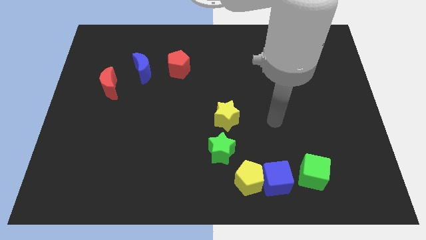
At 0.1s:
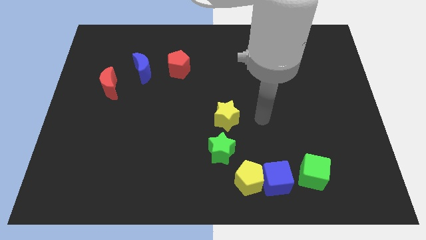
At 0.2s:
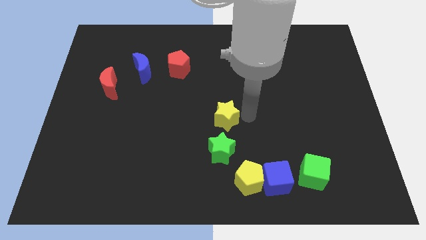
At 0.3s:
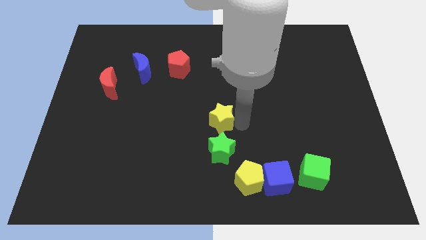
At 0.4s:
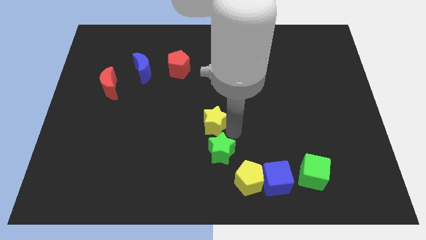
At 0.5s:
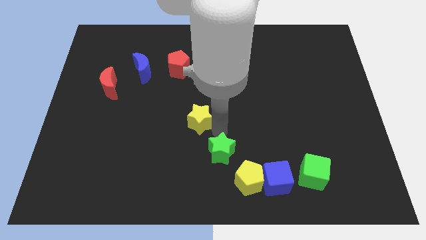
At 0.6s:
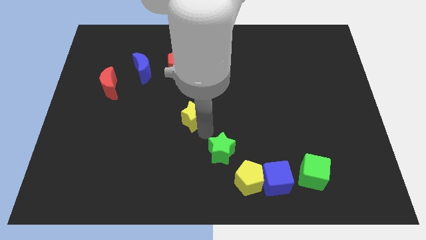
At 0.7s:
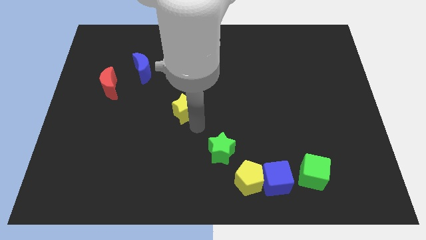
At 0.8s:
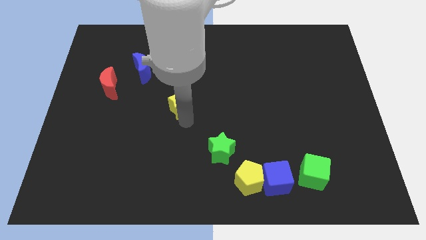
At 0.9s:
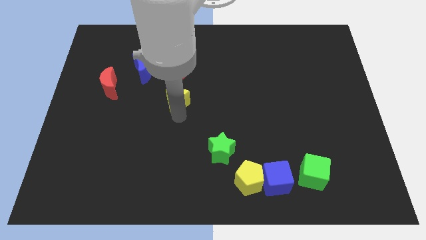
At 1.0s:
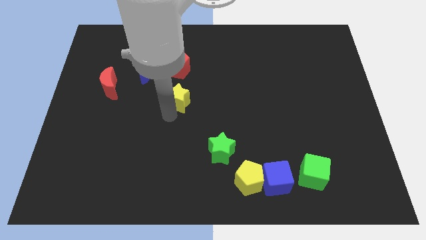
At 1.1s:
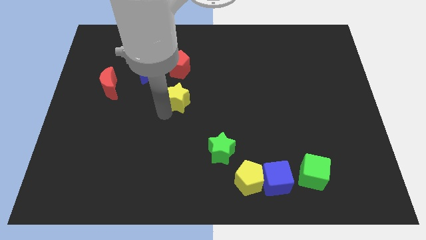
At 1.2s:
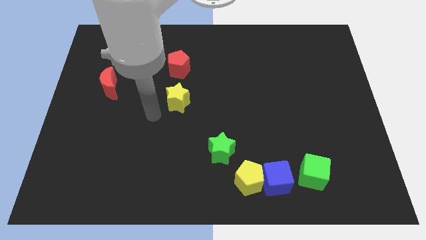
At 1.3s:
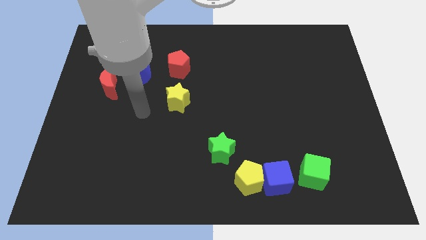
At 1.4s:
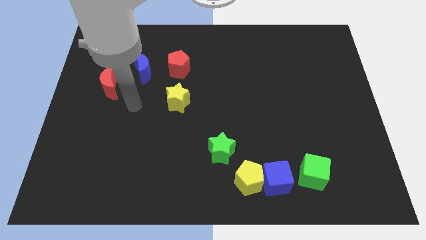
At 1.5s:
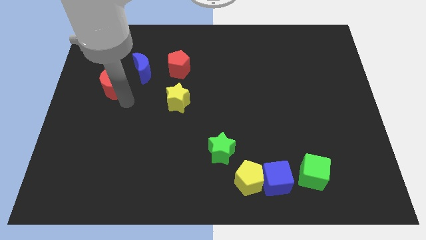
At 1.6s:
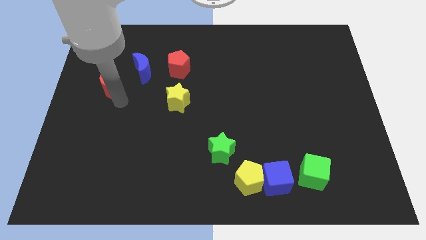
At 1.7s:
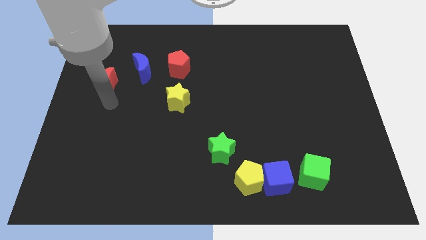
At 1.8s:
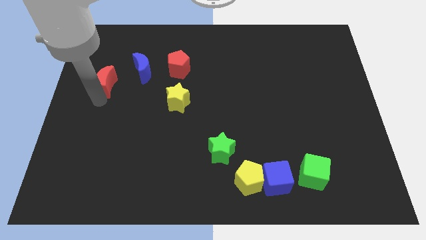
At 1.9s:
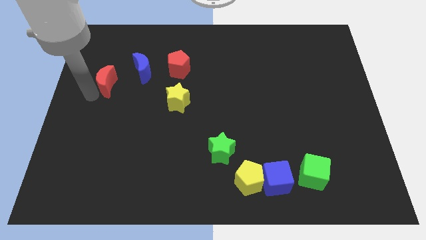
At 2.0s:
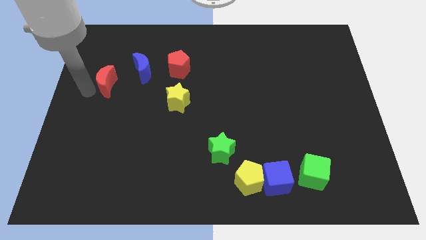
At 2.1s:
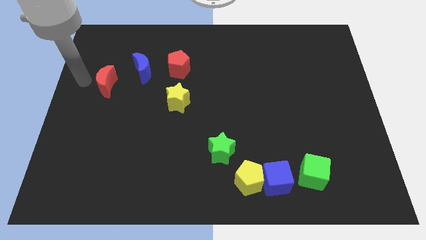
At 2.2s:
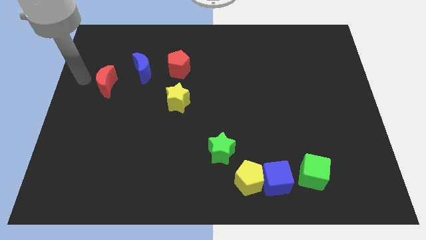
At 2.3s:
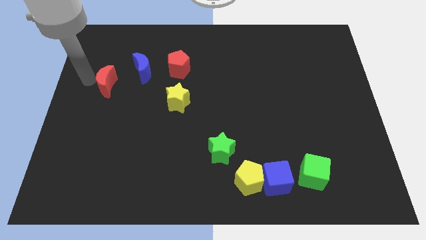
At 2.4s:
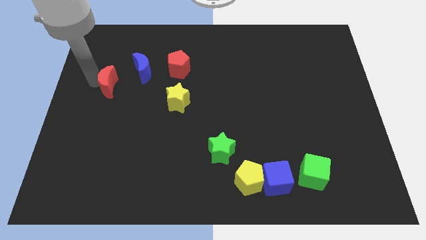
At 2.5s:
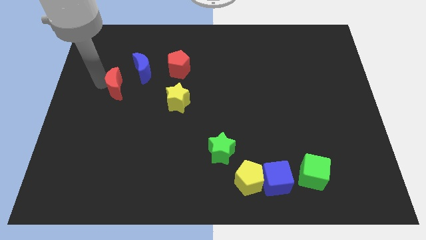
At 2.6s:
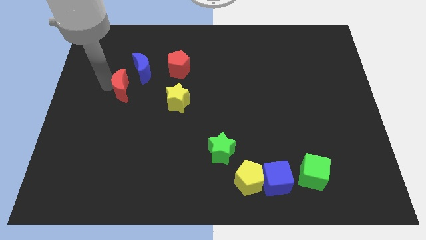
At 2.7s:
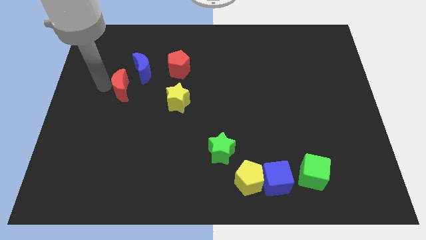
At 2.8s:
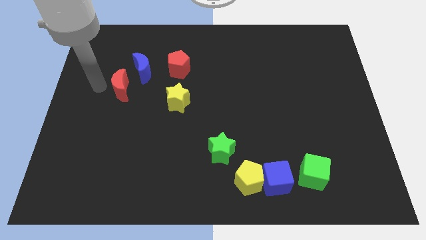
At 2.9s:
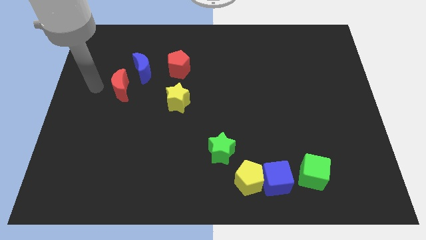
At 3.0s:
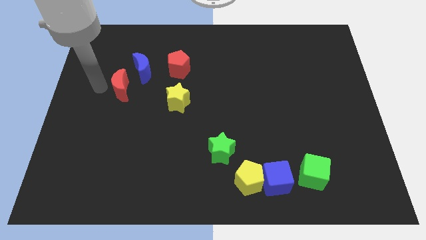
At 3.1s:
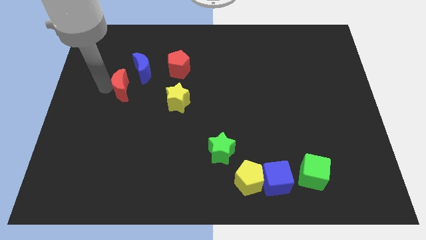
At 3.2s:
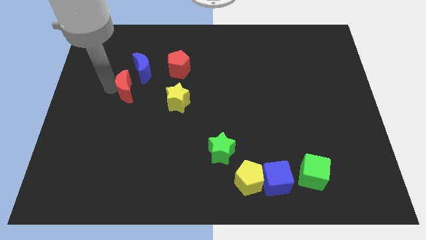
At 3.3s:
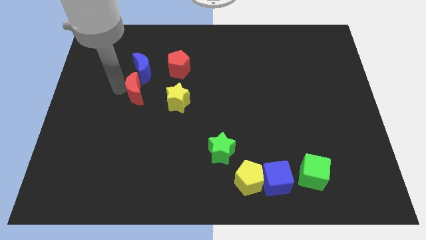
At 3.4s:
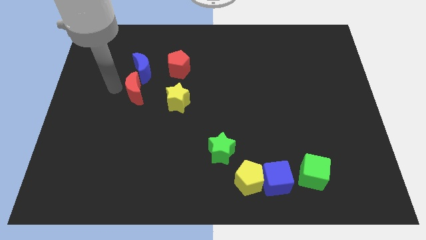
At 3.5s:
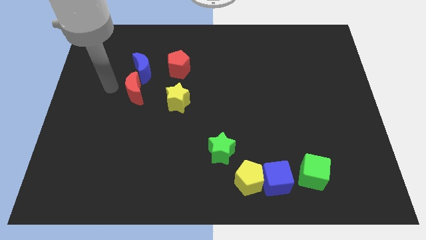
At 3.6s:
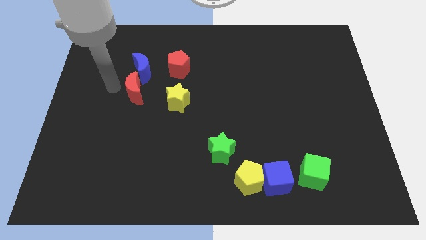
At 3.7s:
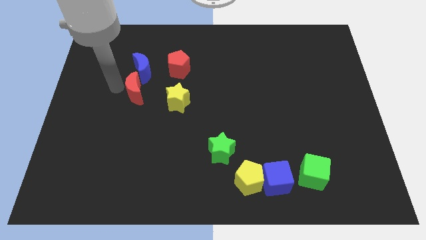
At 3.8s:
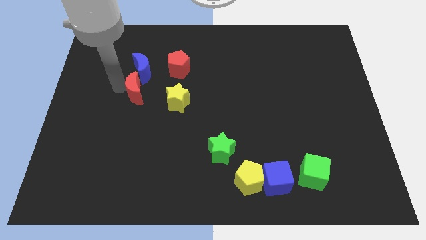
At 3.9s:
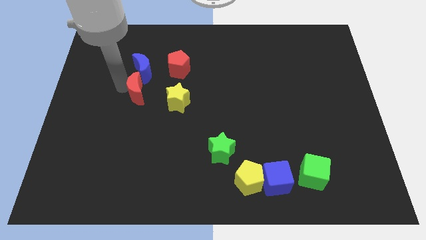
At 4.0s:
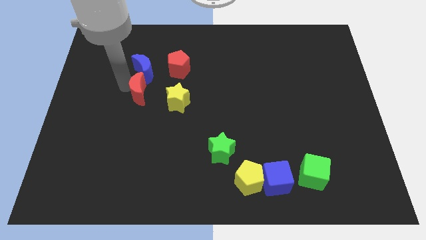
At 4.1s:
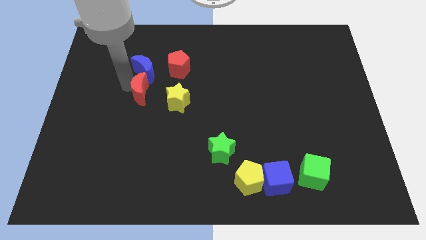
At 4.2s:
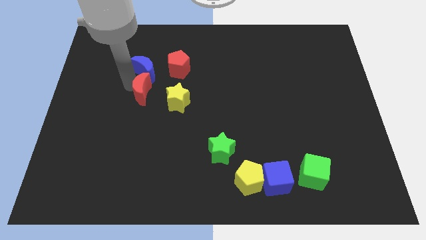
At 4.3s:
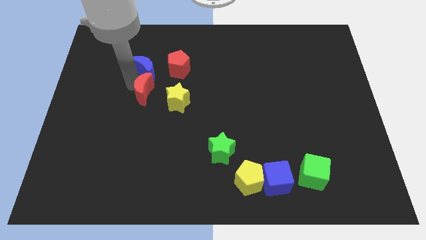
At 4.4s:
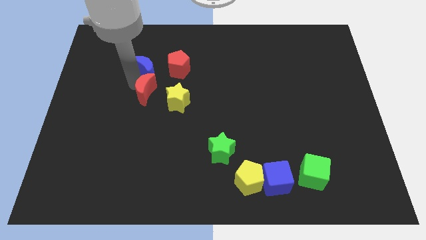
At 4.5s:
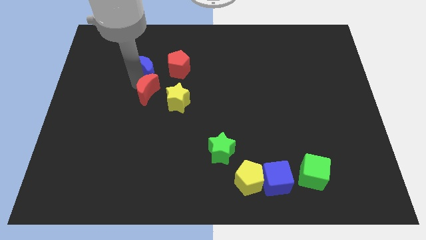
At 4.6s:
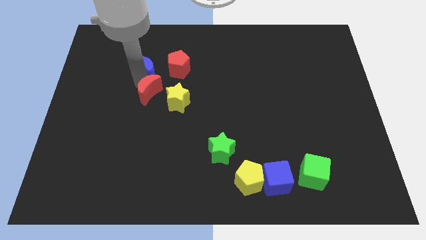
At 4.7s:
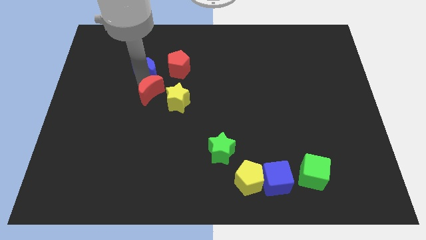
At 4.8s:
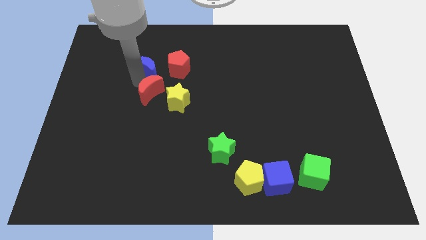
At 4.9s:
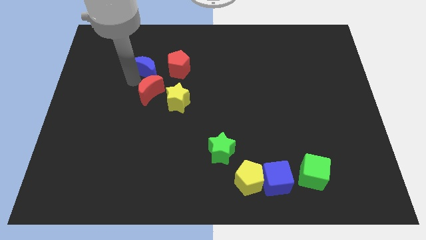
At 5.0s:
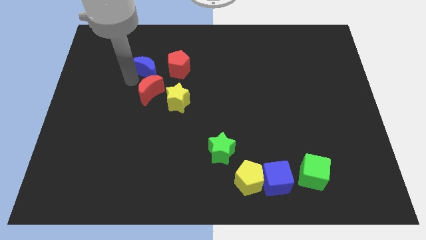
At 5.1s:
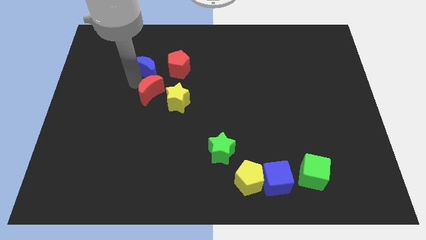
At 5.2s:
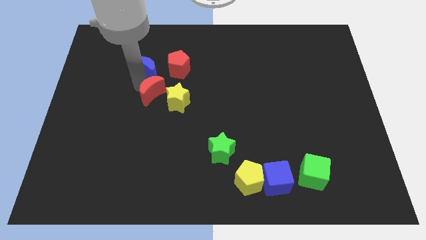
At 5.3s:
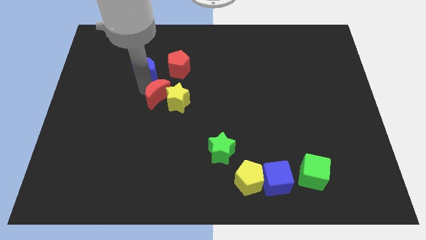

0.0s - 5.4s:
put the red moon close to the yellow star

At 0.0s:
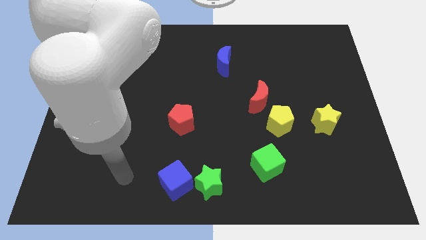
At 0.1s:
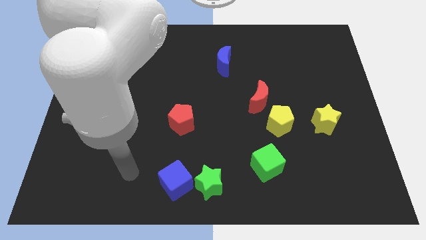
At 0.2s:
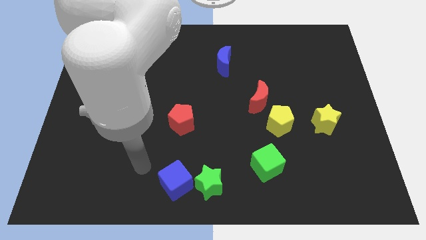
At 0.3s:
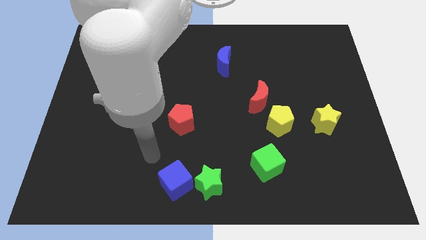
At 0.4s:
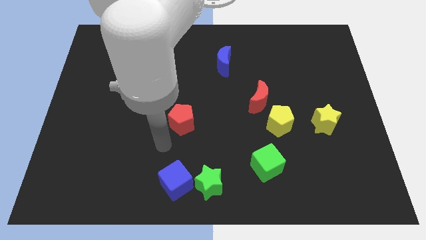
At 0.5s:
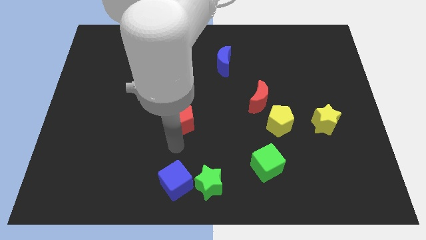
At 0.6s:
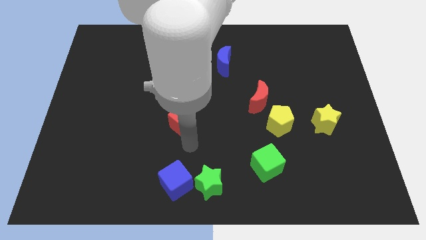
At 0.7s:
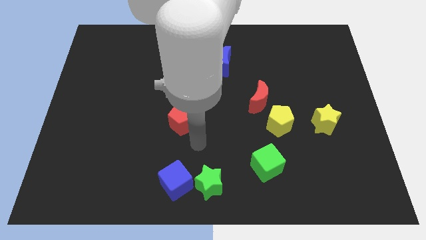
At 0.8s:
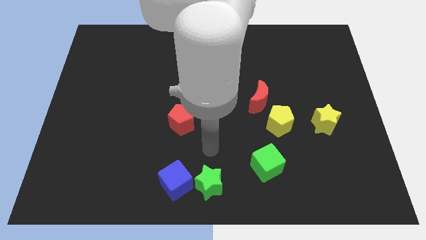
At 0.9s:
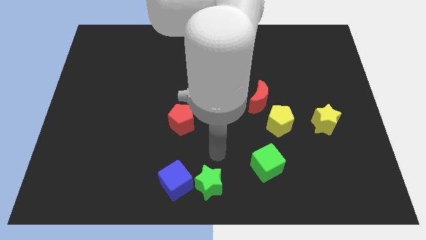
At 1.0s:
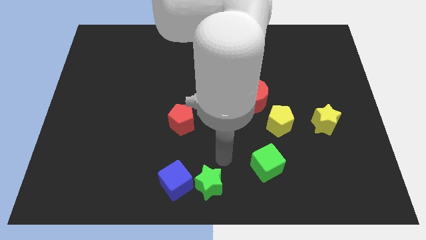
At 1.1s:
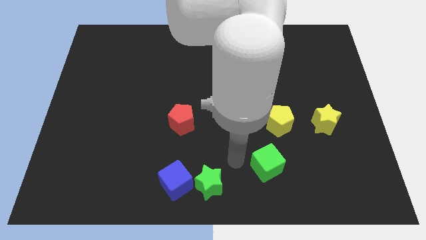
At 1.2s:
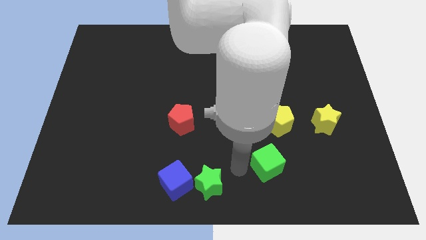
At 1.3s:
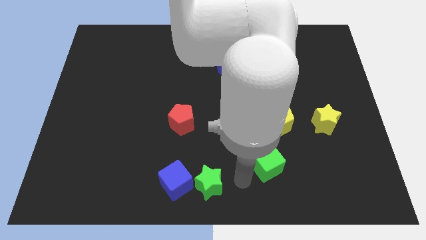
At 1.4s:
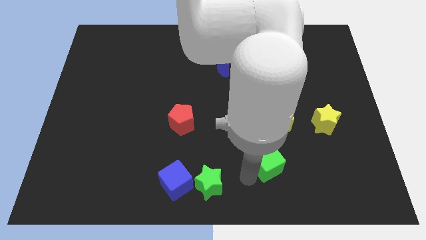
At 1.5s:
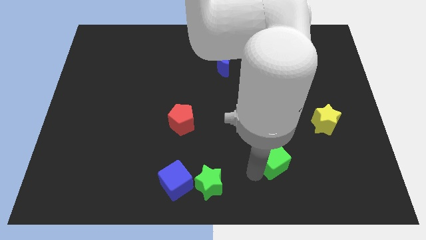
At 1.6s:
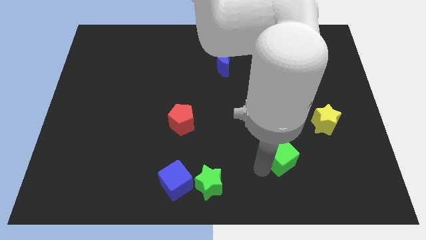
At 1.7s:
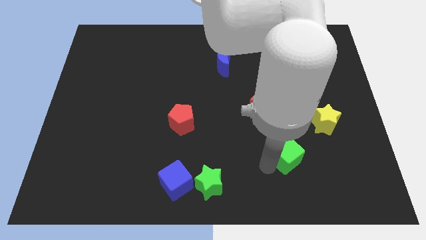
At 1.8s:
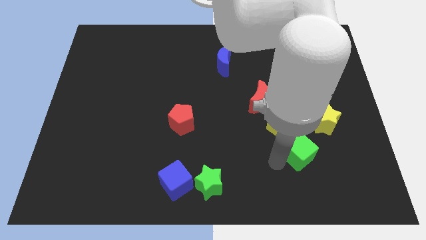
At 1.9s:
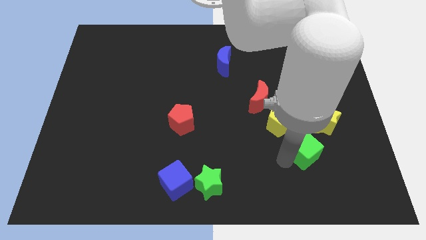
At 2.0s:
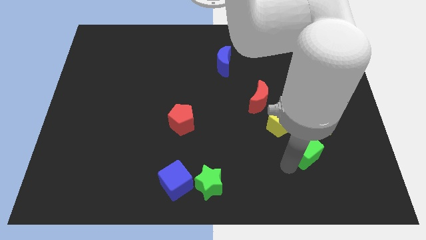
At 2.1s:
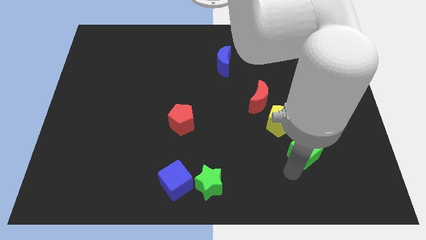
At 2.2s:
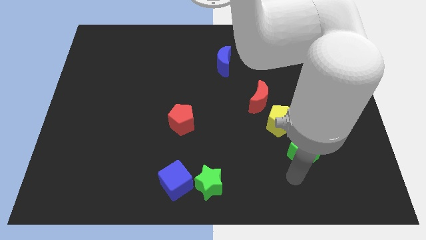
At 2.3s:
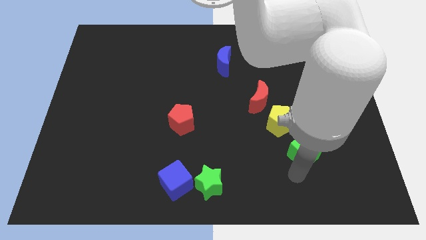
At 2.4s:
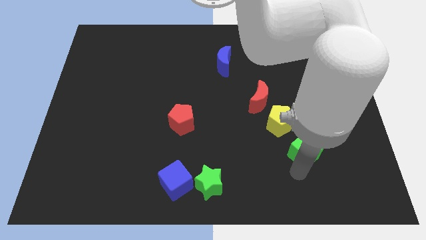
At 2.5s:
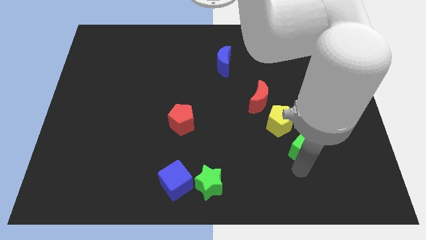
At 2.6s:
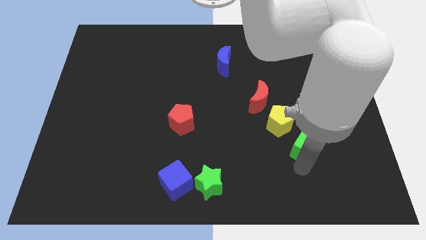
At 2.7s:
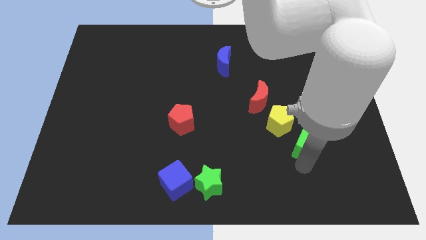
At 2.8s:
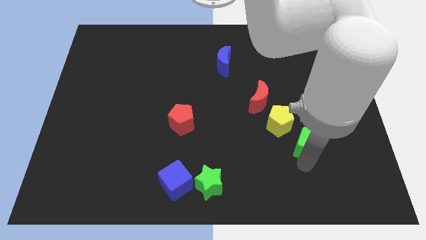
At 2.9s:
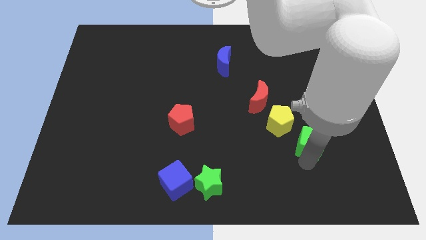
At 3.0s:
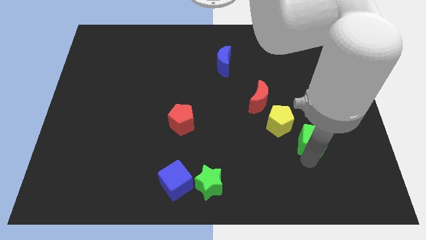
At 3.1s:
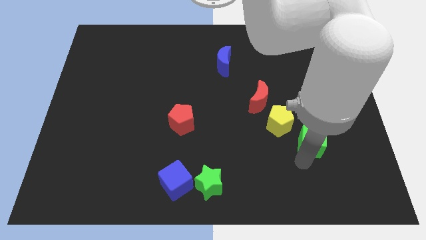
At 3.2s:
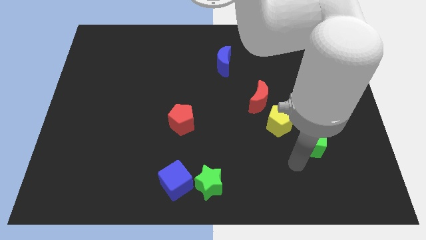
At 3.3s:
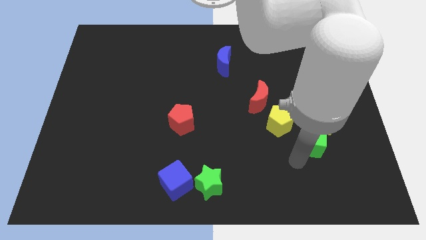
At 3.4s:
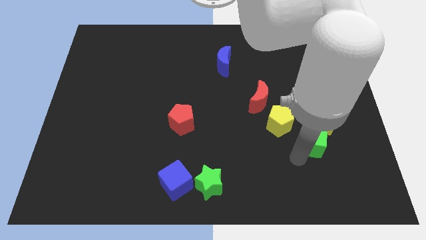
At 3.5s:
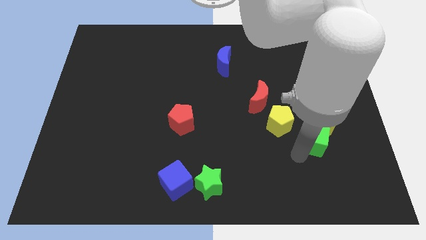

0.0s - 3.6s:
move the green cube next to the yellow star
